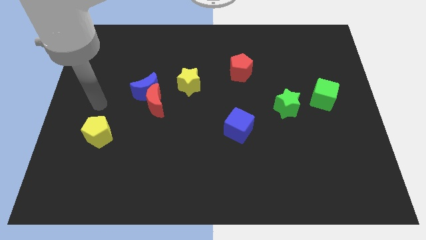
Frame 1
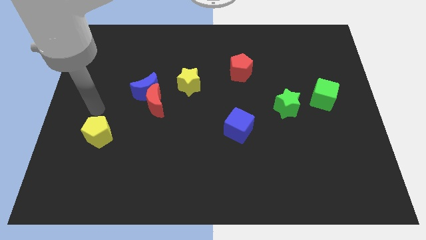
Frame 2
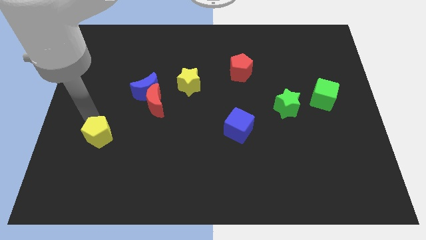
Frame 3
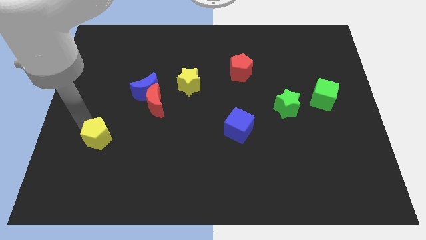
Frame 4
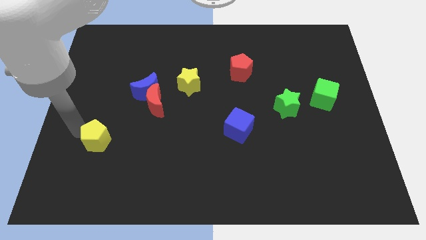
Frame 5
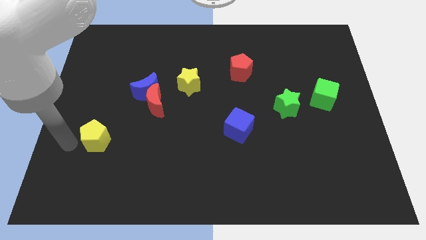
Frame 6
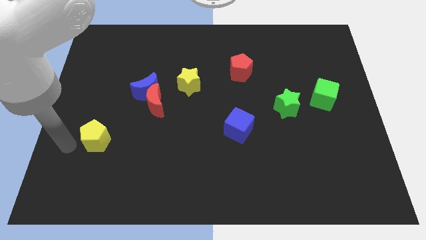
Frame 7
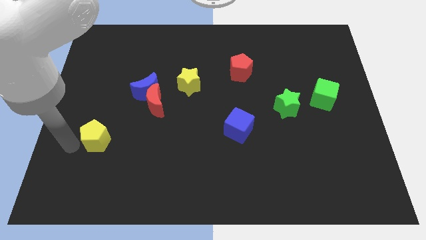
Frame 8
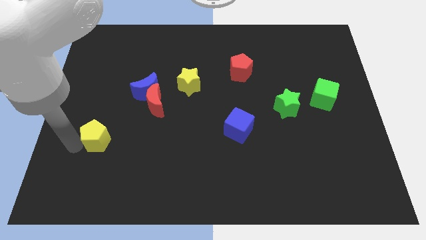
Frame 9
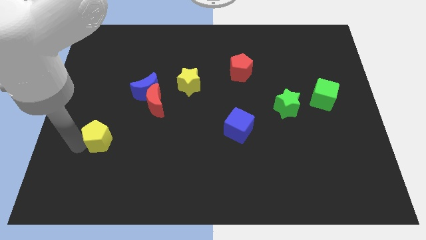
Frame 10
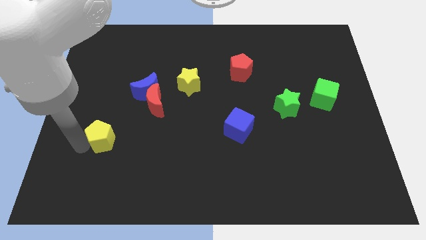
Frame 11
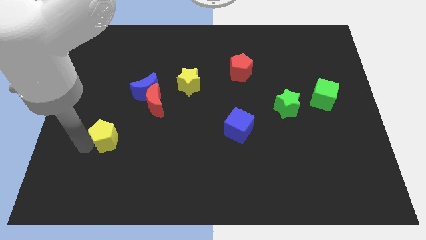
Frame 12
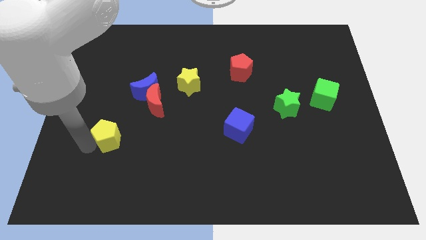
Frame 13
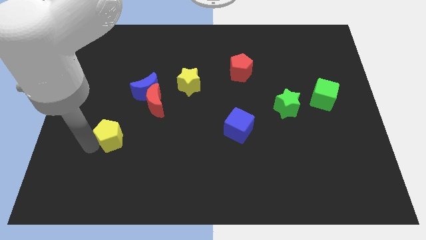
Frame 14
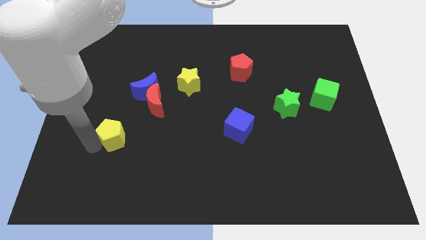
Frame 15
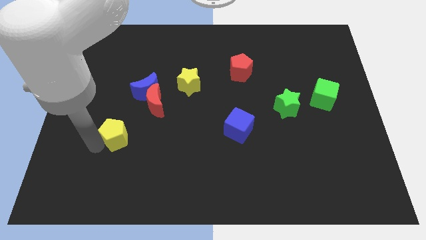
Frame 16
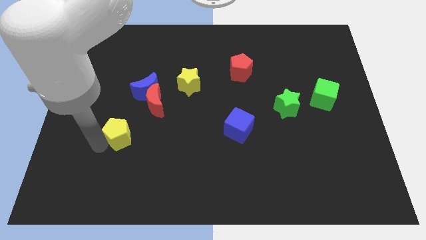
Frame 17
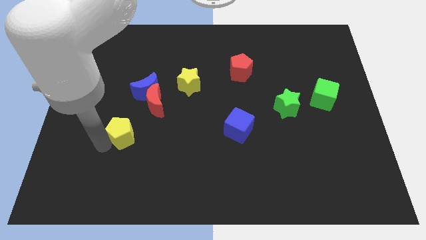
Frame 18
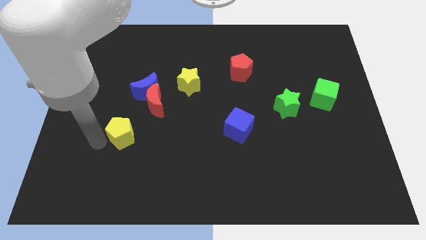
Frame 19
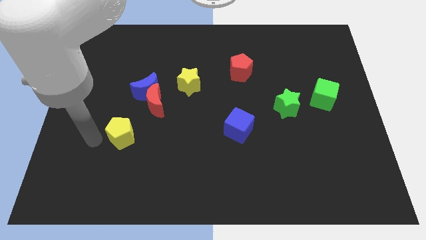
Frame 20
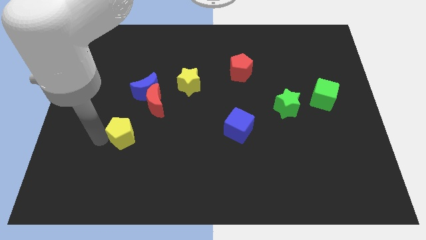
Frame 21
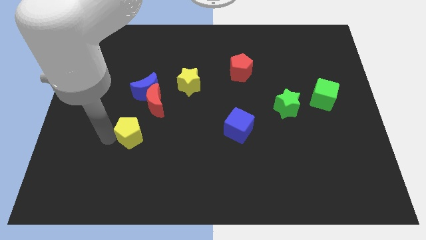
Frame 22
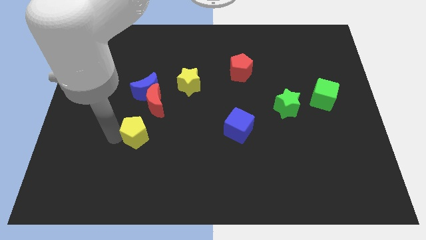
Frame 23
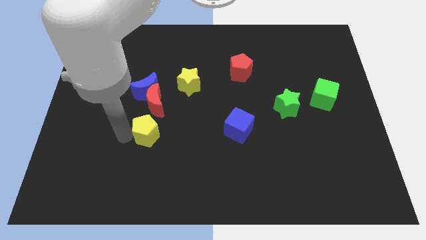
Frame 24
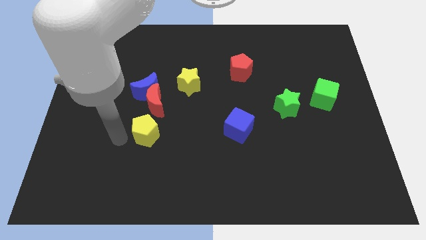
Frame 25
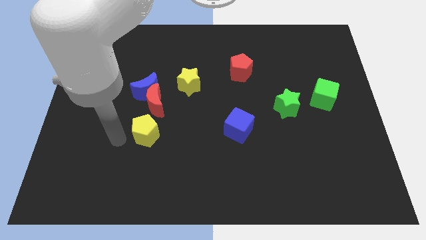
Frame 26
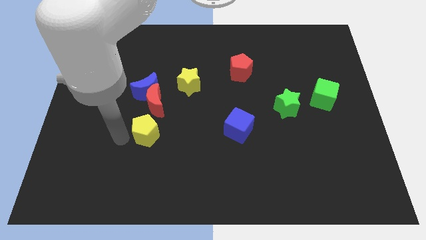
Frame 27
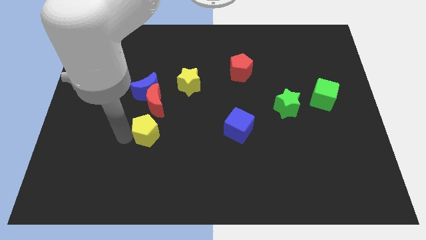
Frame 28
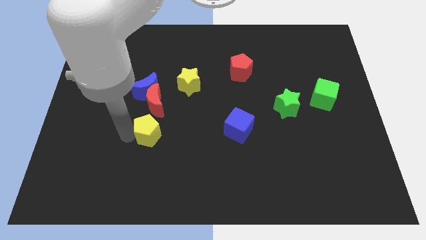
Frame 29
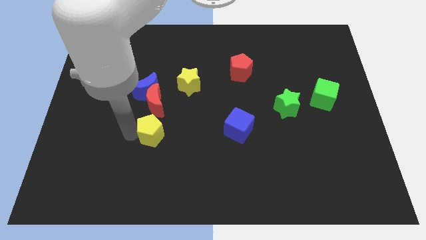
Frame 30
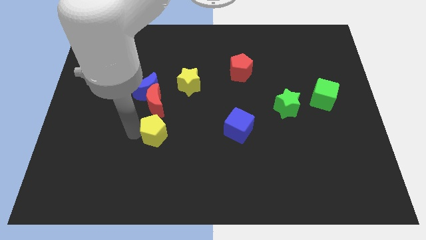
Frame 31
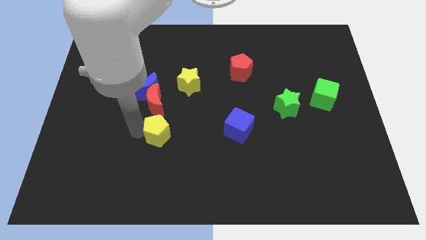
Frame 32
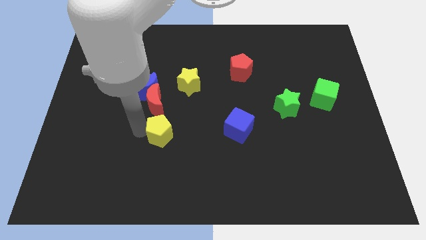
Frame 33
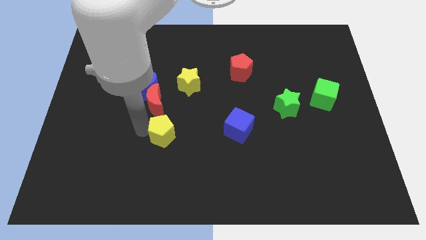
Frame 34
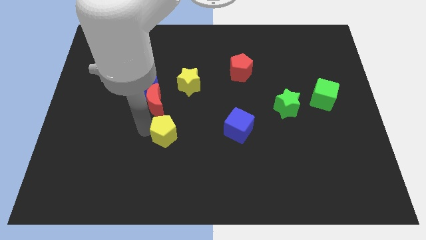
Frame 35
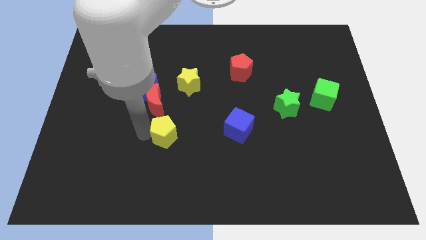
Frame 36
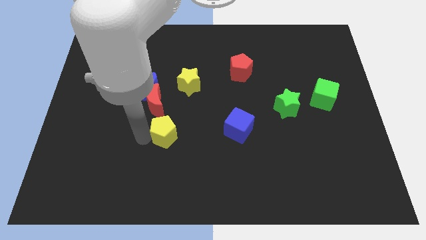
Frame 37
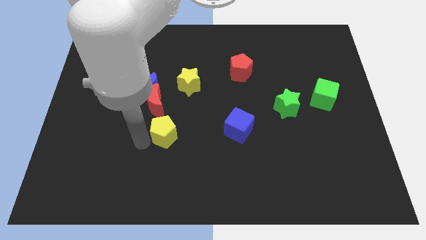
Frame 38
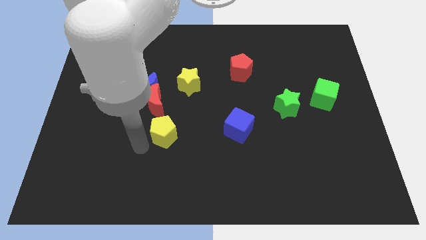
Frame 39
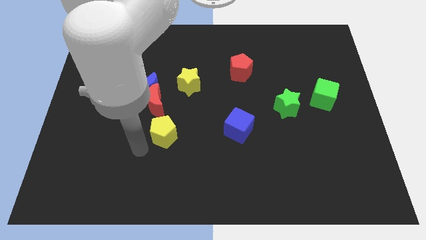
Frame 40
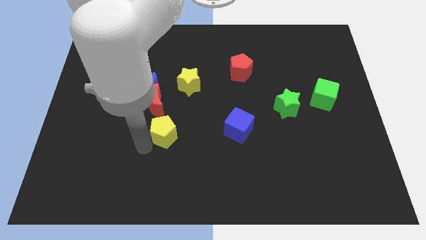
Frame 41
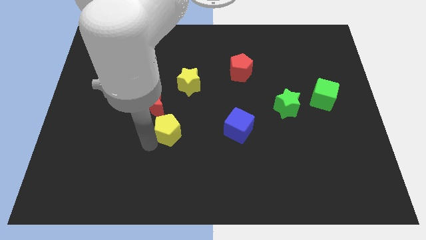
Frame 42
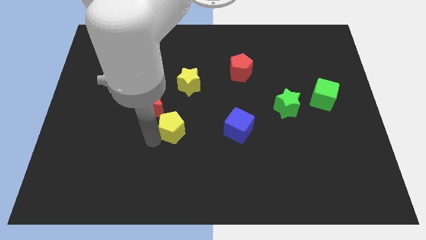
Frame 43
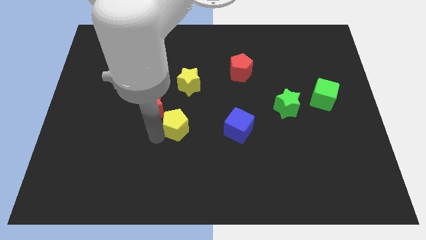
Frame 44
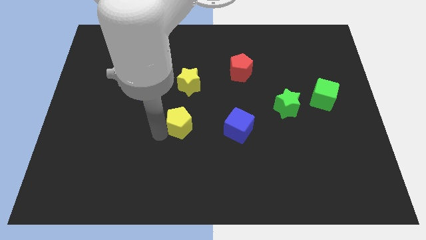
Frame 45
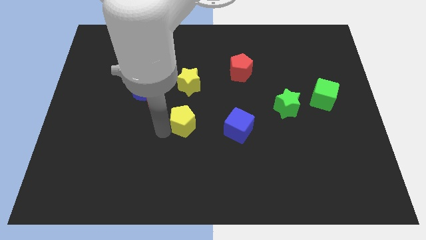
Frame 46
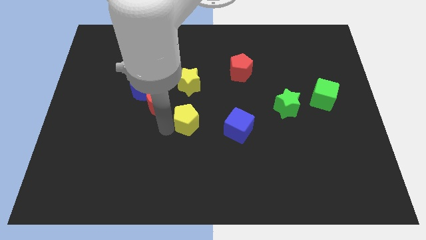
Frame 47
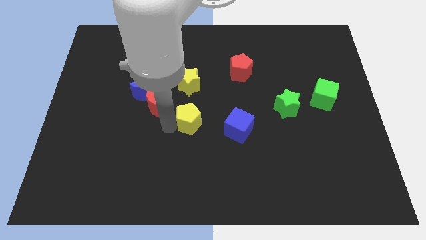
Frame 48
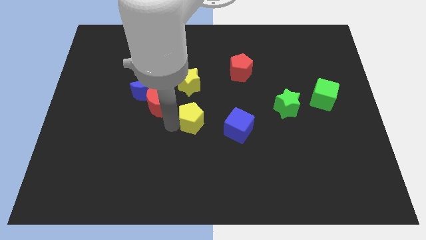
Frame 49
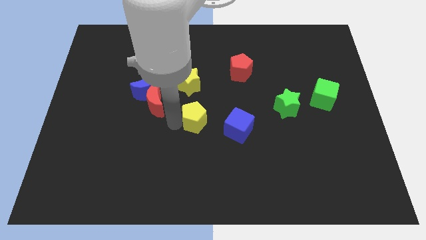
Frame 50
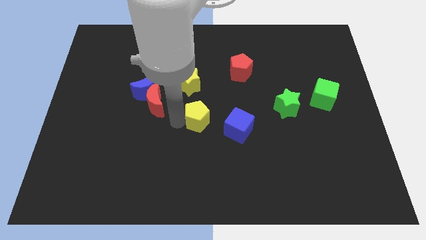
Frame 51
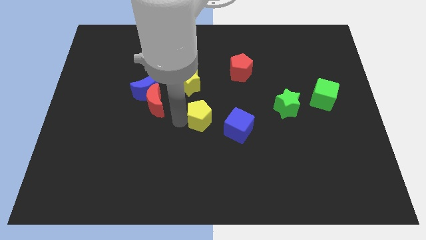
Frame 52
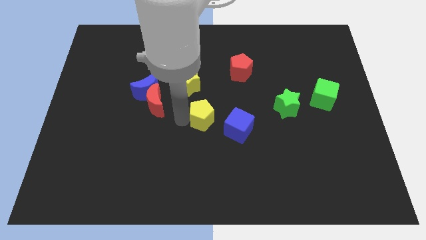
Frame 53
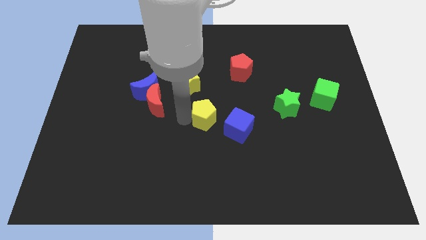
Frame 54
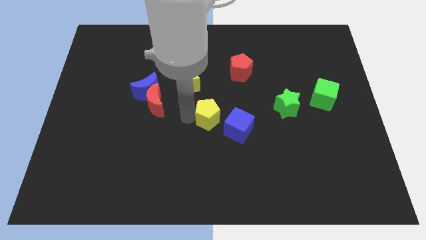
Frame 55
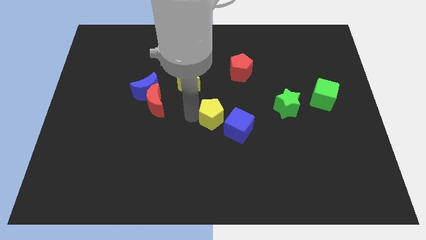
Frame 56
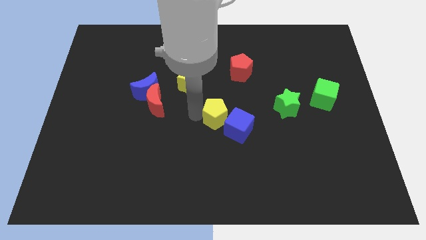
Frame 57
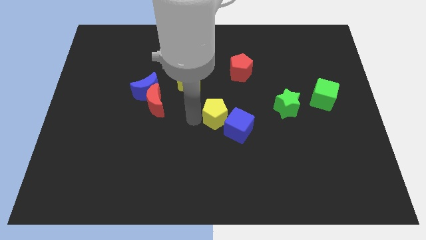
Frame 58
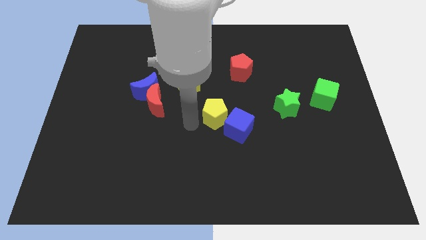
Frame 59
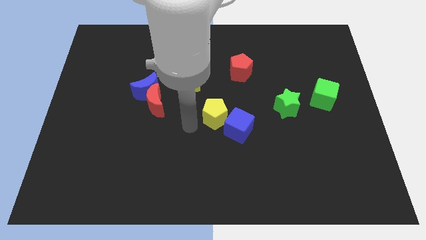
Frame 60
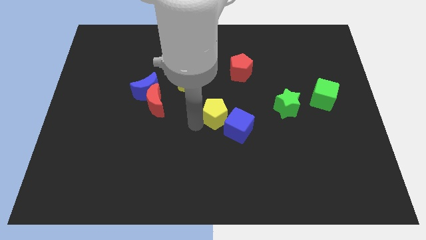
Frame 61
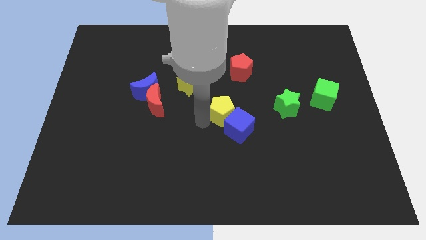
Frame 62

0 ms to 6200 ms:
push the yellow pentagon left of the green star
